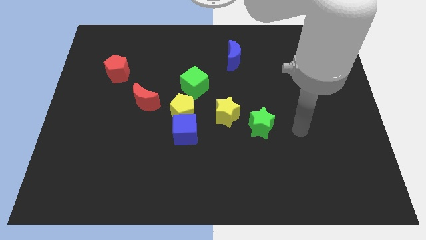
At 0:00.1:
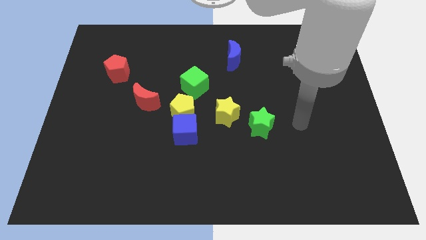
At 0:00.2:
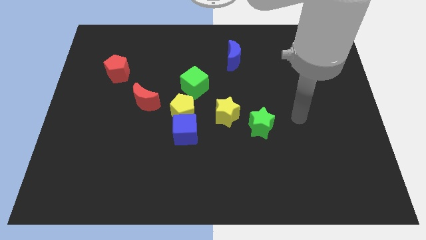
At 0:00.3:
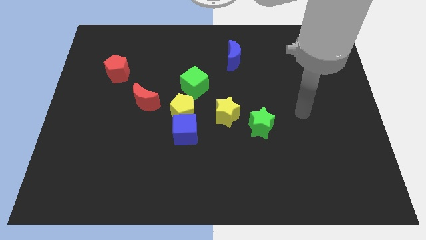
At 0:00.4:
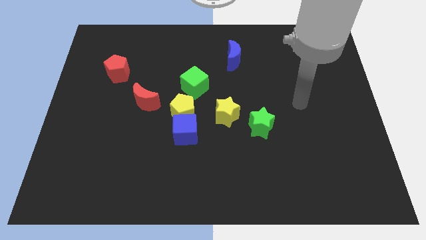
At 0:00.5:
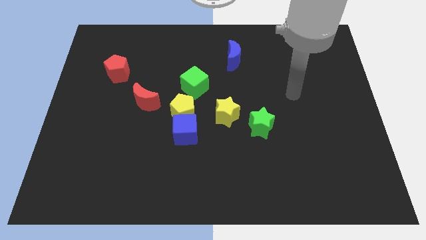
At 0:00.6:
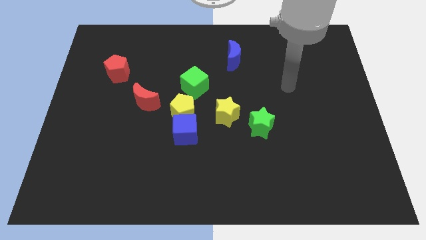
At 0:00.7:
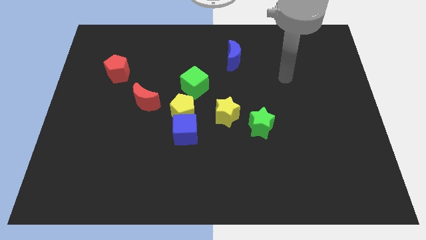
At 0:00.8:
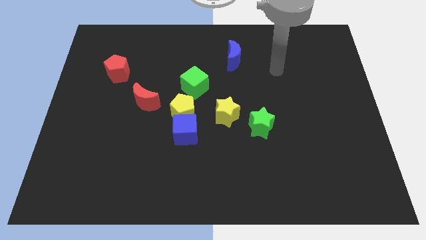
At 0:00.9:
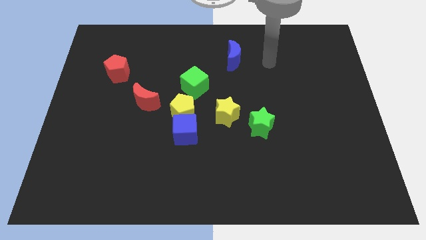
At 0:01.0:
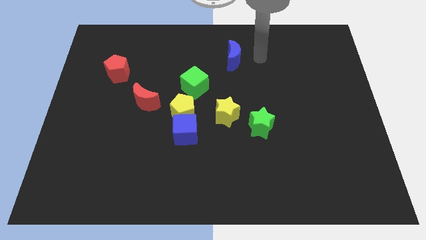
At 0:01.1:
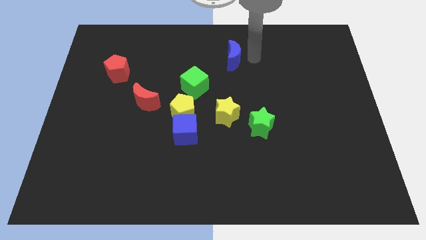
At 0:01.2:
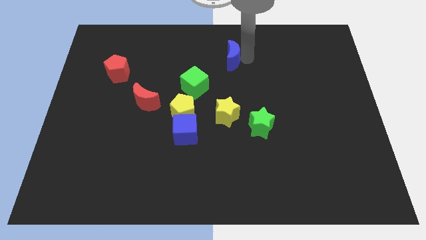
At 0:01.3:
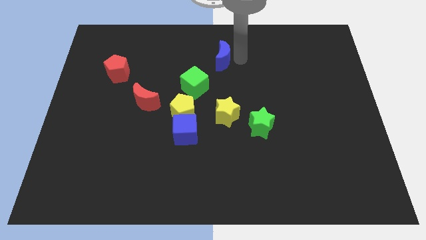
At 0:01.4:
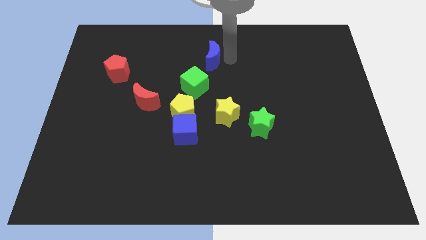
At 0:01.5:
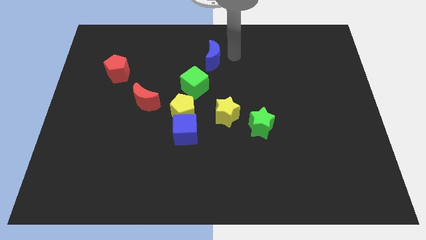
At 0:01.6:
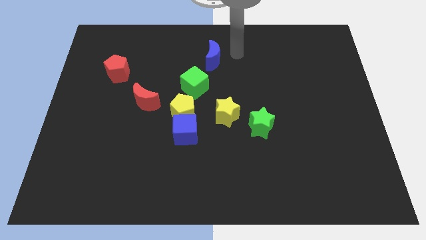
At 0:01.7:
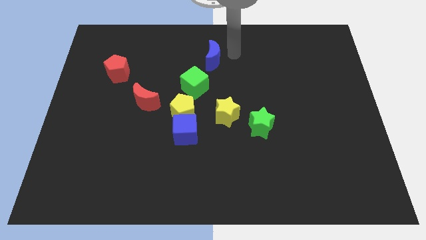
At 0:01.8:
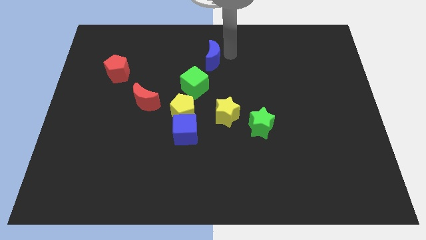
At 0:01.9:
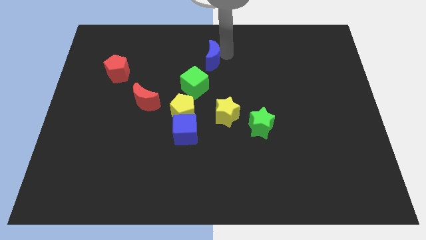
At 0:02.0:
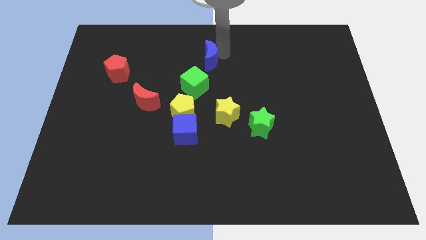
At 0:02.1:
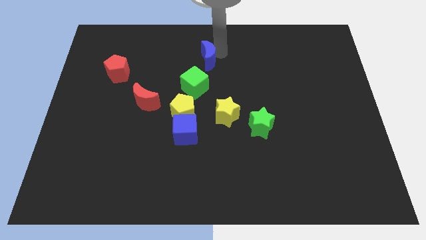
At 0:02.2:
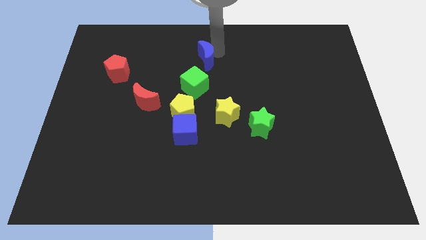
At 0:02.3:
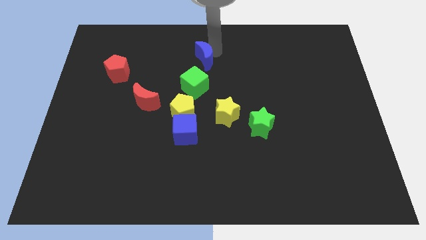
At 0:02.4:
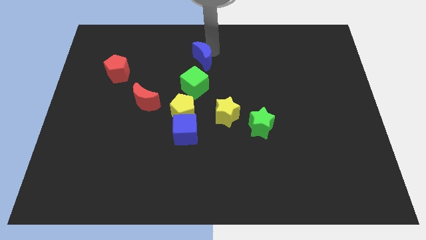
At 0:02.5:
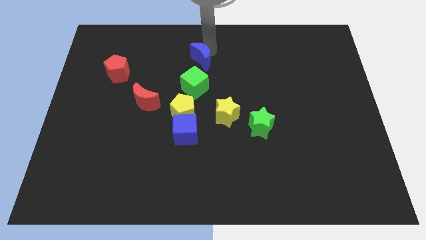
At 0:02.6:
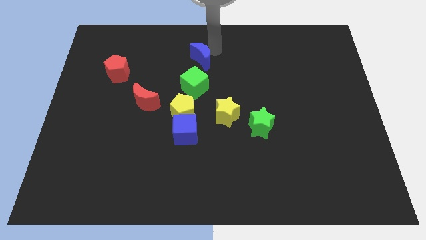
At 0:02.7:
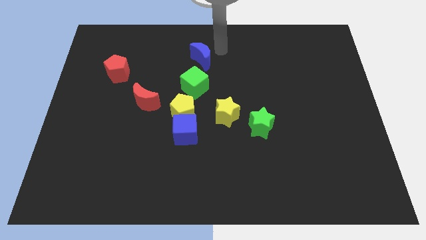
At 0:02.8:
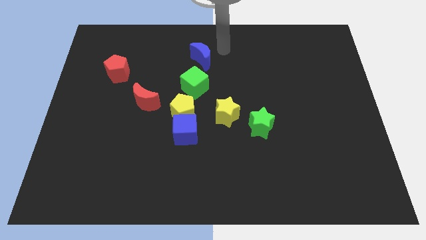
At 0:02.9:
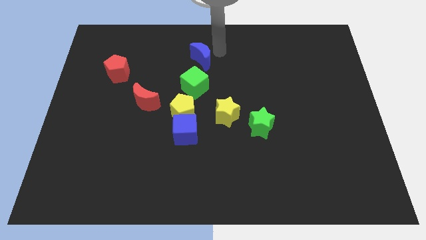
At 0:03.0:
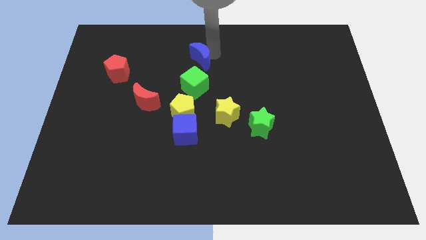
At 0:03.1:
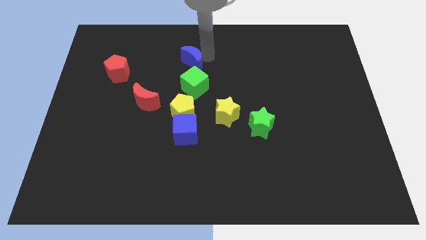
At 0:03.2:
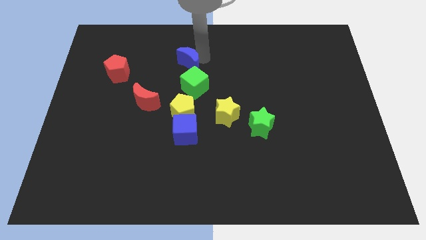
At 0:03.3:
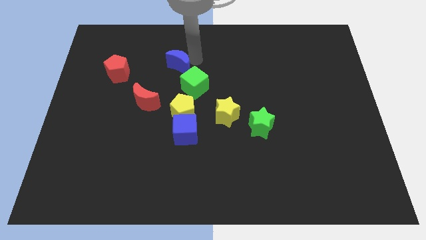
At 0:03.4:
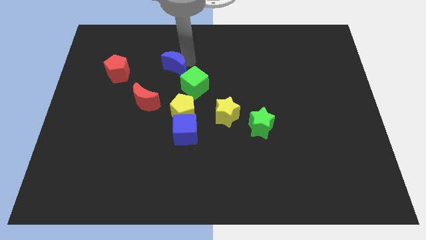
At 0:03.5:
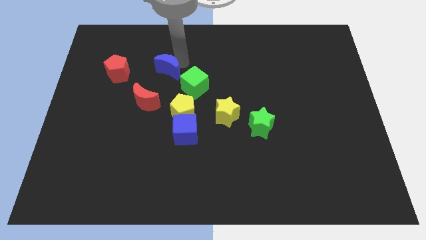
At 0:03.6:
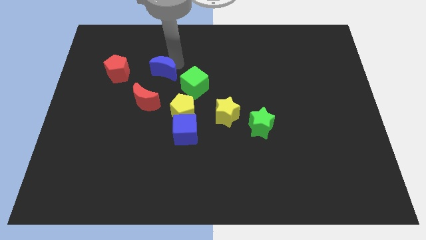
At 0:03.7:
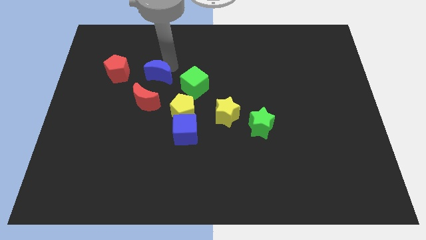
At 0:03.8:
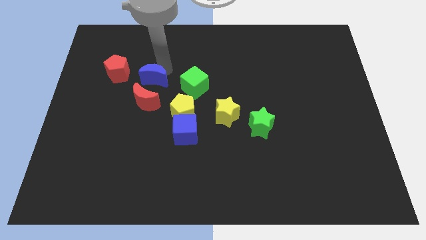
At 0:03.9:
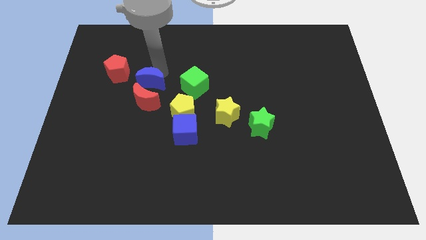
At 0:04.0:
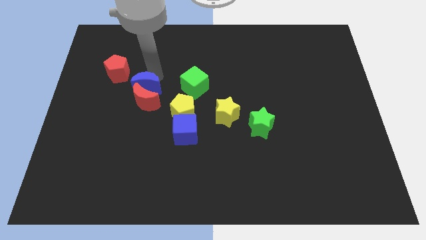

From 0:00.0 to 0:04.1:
move the blue moon to the red moon

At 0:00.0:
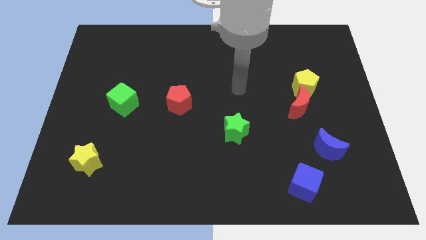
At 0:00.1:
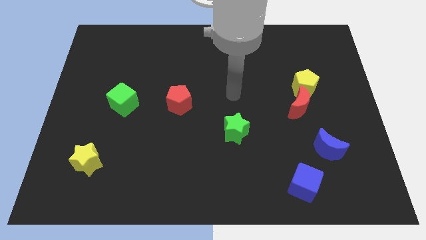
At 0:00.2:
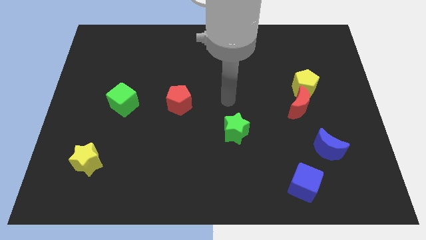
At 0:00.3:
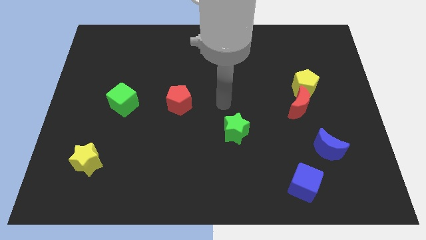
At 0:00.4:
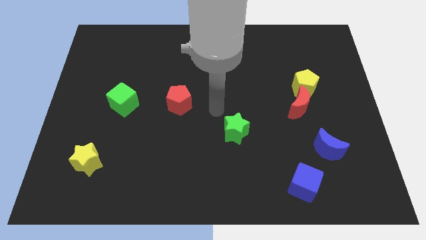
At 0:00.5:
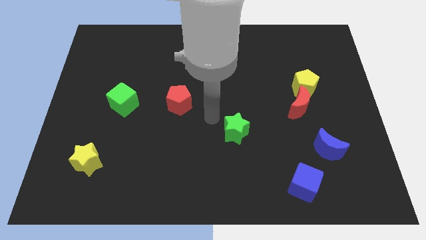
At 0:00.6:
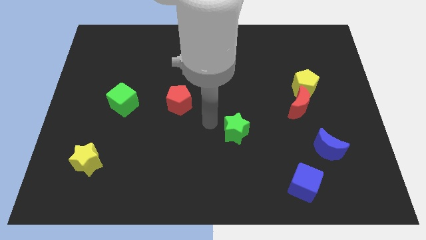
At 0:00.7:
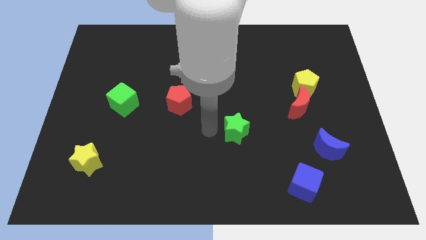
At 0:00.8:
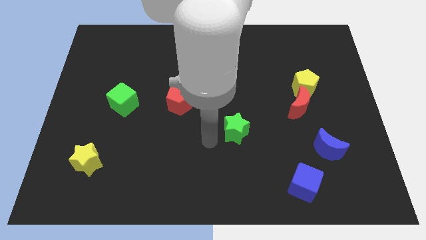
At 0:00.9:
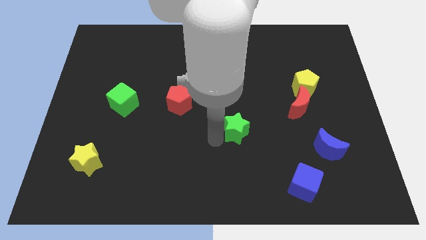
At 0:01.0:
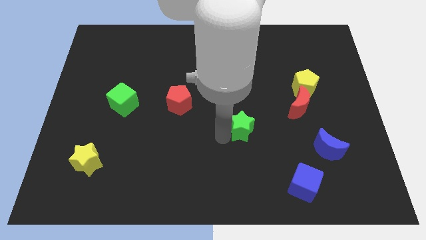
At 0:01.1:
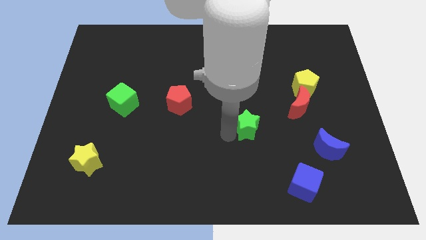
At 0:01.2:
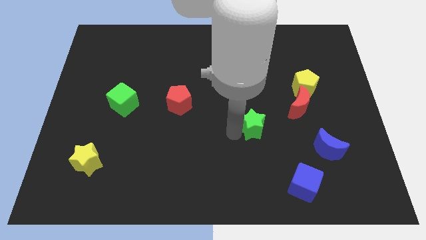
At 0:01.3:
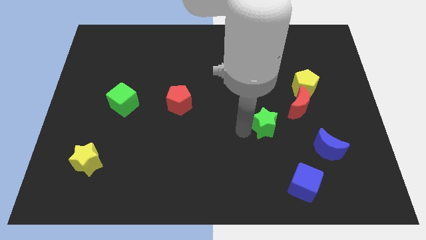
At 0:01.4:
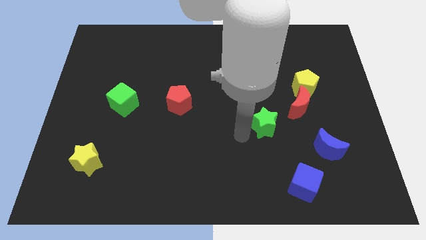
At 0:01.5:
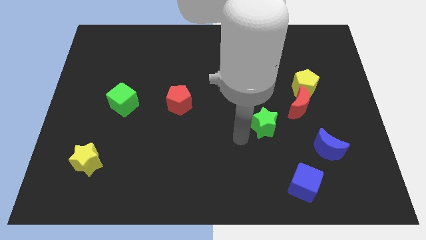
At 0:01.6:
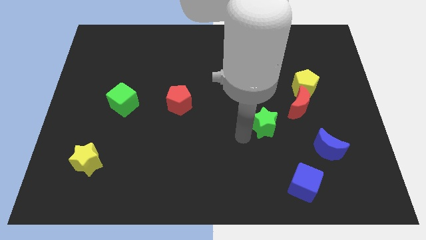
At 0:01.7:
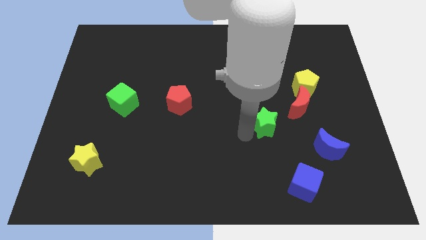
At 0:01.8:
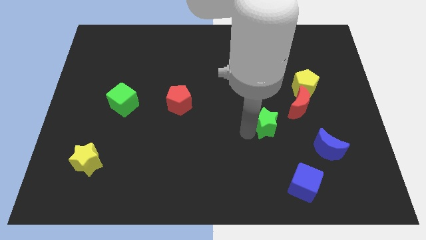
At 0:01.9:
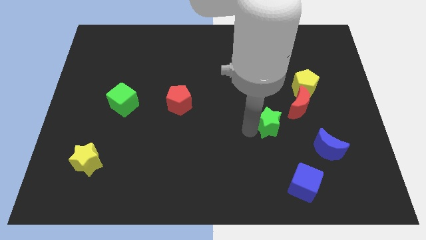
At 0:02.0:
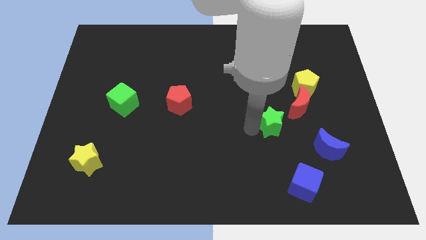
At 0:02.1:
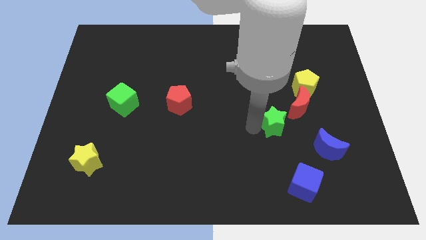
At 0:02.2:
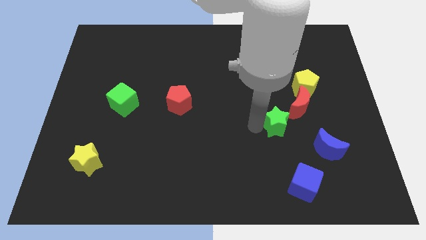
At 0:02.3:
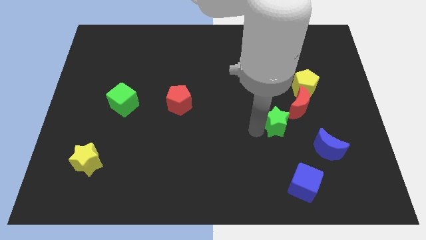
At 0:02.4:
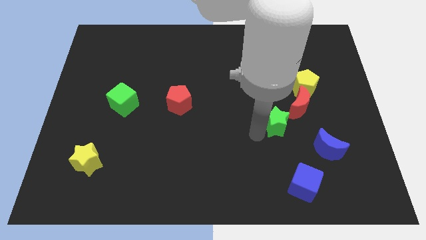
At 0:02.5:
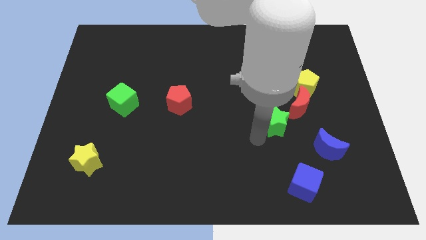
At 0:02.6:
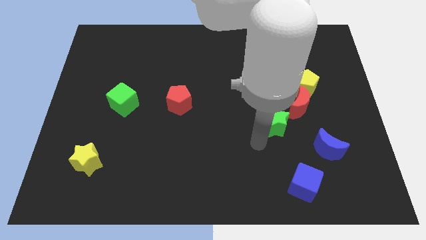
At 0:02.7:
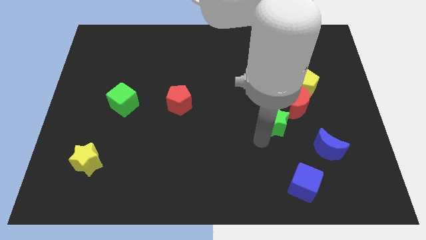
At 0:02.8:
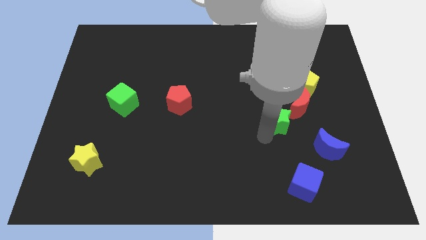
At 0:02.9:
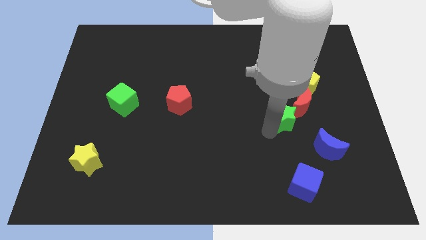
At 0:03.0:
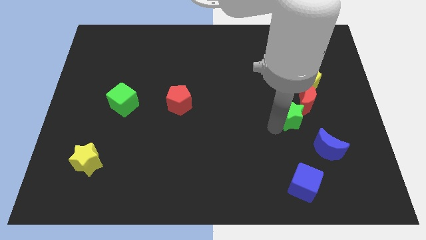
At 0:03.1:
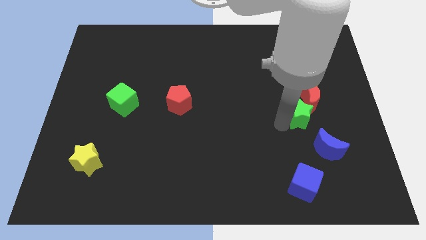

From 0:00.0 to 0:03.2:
move the green star towards the red moon

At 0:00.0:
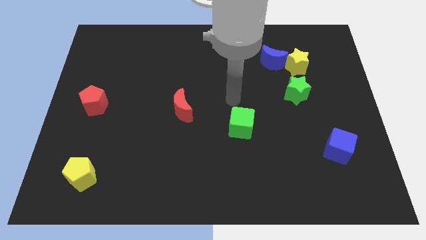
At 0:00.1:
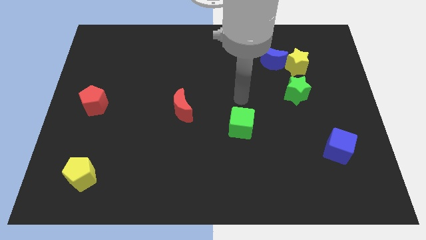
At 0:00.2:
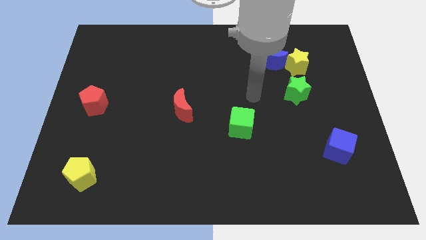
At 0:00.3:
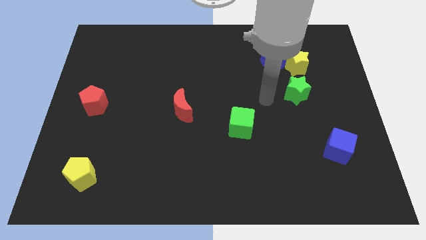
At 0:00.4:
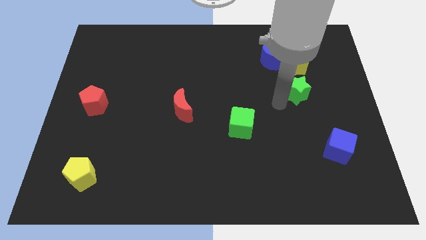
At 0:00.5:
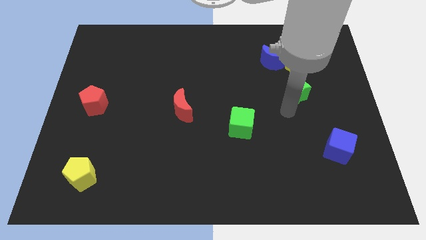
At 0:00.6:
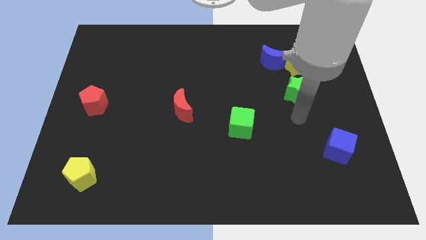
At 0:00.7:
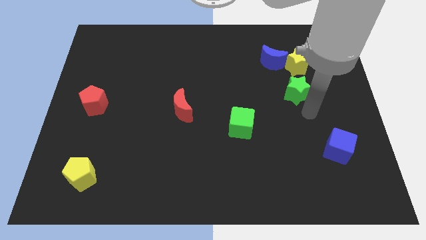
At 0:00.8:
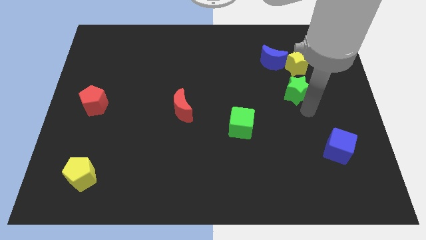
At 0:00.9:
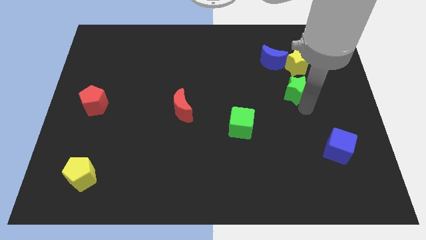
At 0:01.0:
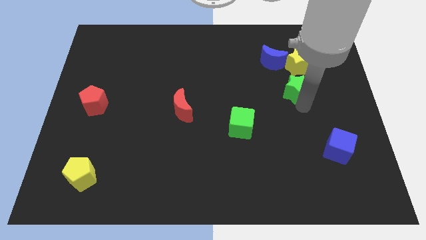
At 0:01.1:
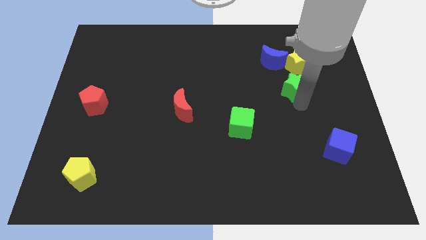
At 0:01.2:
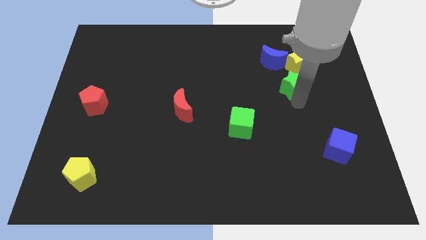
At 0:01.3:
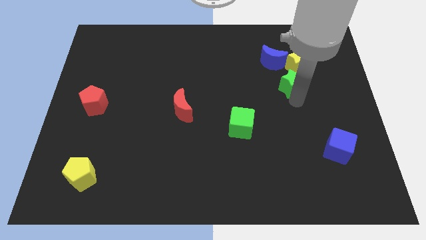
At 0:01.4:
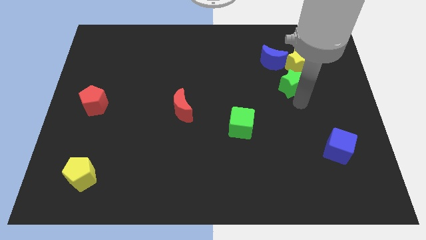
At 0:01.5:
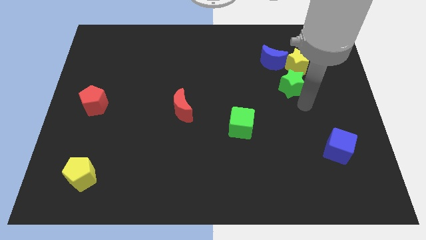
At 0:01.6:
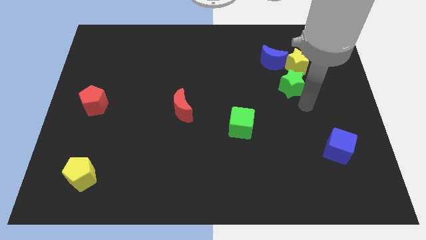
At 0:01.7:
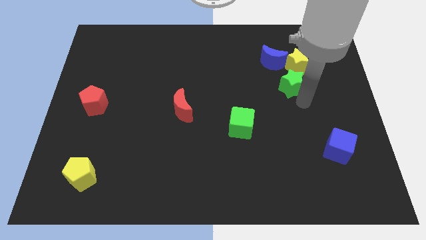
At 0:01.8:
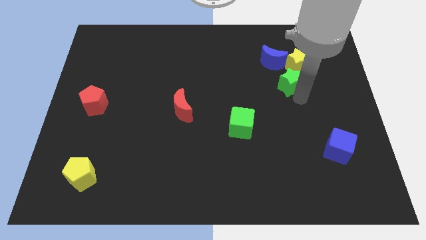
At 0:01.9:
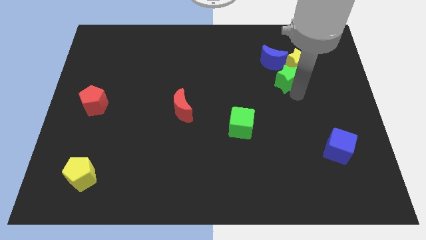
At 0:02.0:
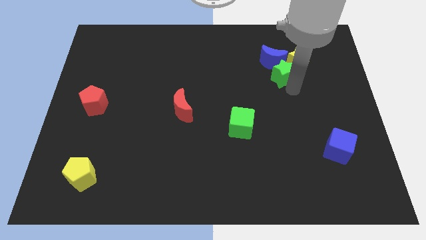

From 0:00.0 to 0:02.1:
put the green star to the blue moon
